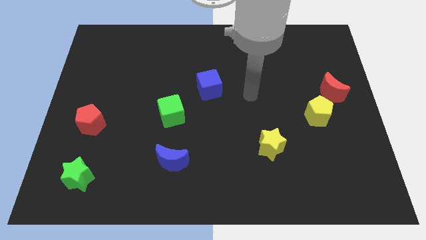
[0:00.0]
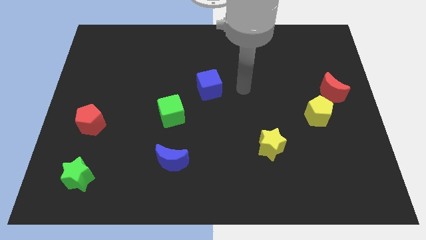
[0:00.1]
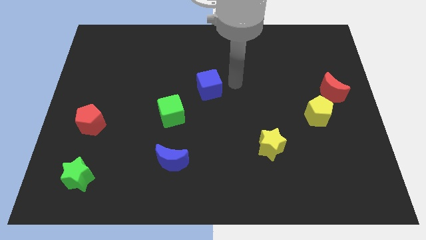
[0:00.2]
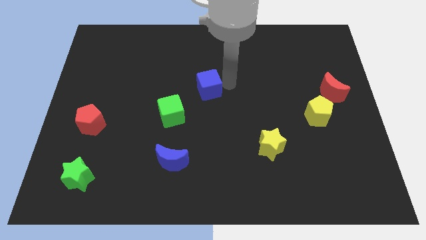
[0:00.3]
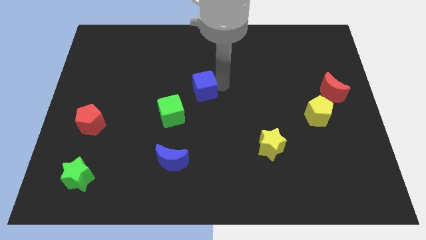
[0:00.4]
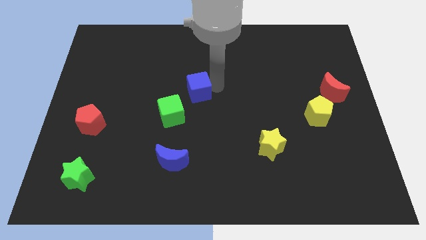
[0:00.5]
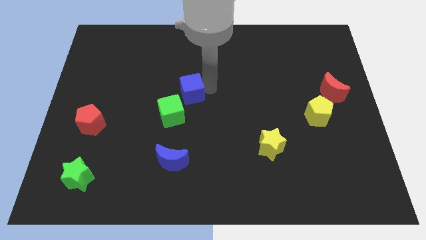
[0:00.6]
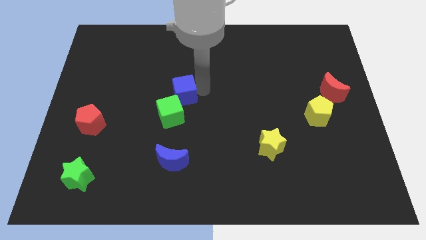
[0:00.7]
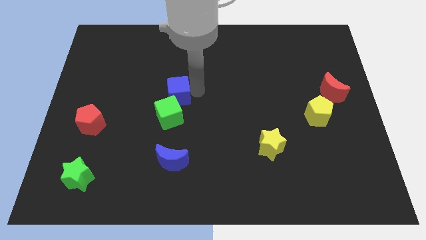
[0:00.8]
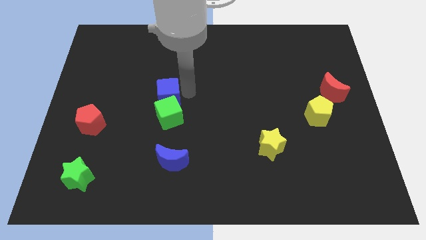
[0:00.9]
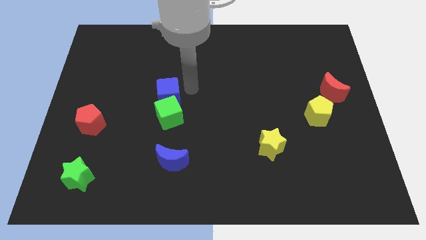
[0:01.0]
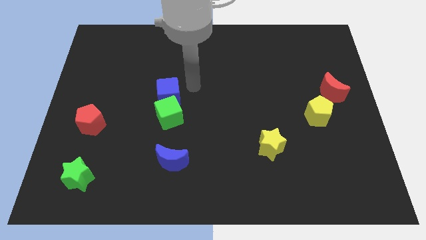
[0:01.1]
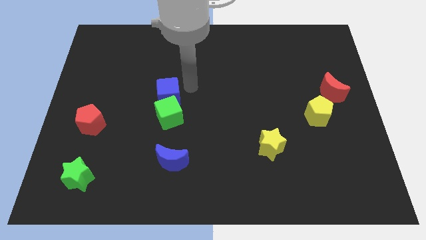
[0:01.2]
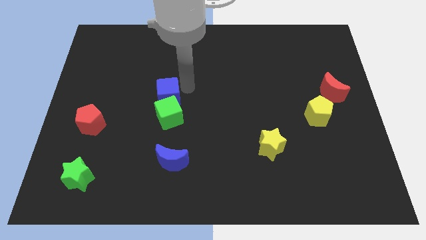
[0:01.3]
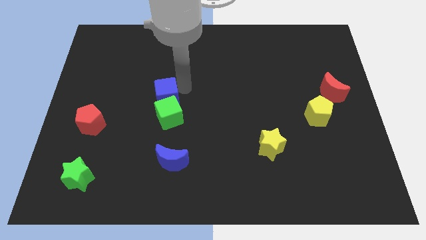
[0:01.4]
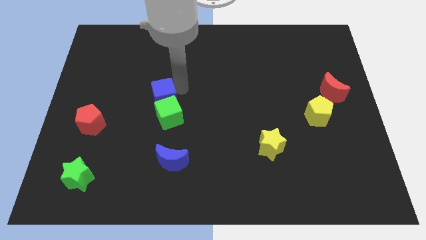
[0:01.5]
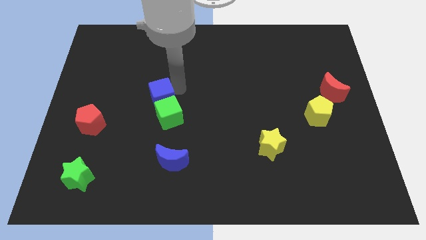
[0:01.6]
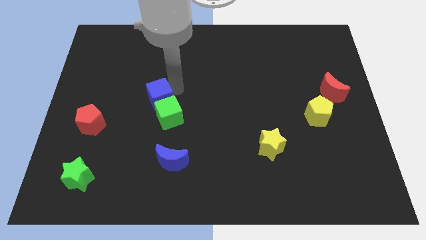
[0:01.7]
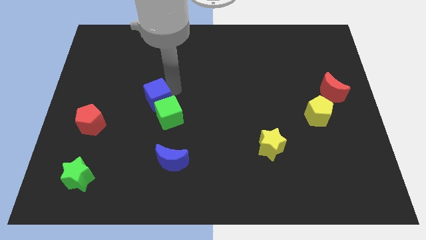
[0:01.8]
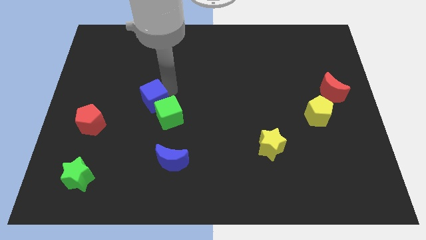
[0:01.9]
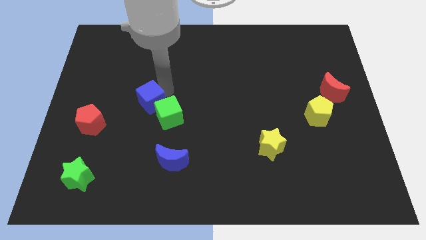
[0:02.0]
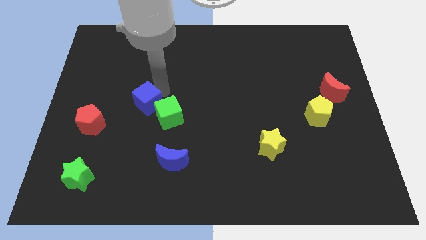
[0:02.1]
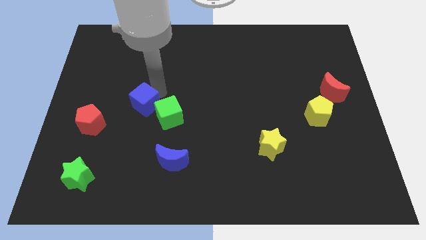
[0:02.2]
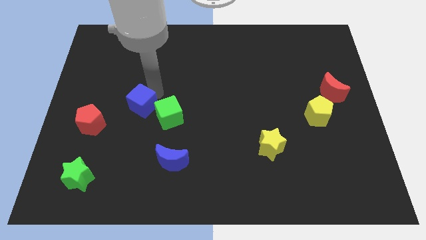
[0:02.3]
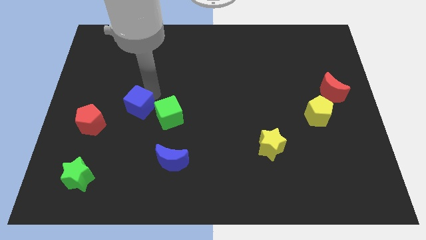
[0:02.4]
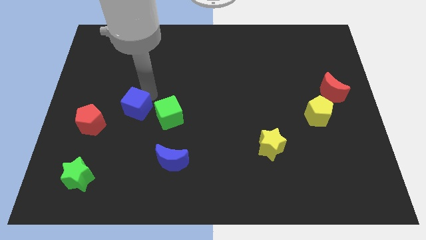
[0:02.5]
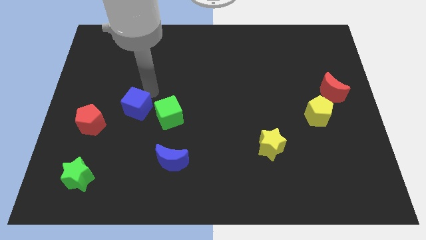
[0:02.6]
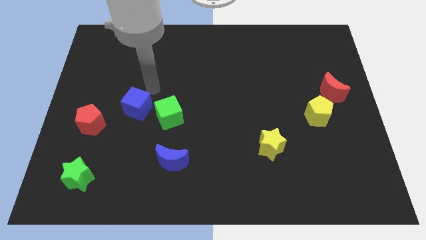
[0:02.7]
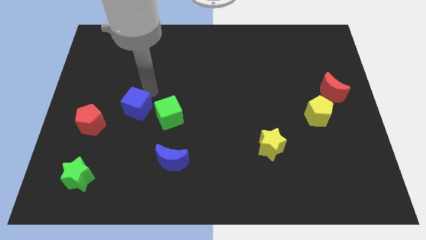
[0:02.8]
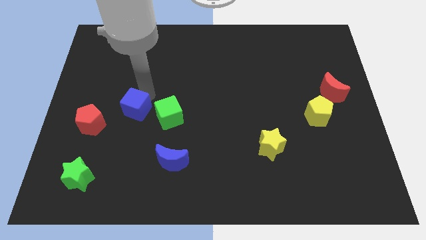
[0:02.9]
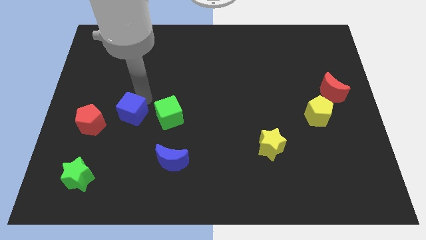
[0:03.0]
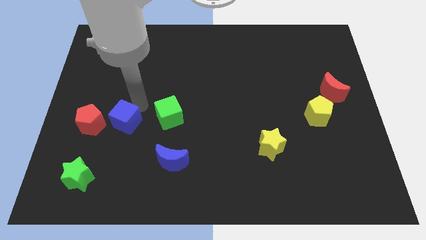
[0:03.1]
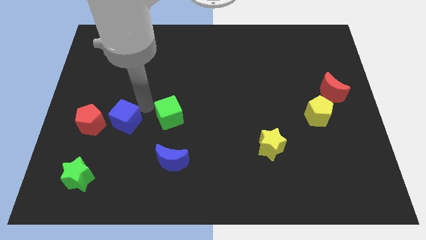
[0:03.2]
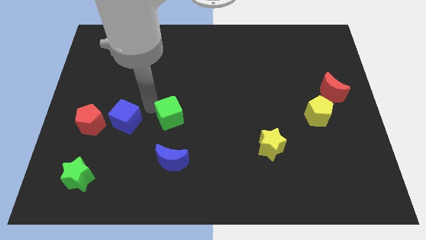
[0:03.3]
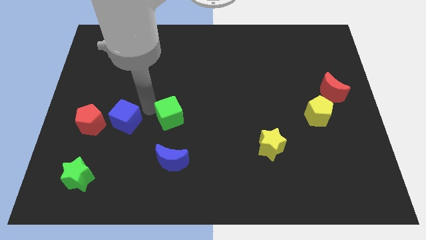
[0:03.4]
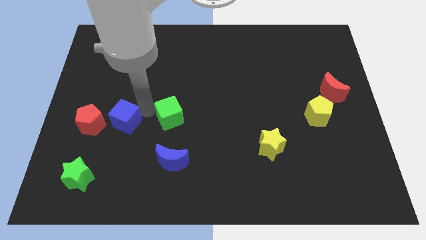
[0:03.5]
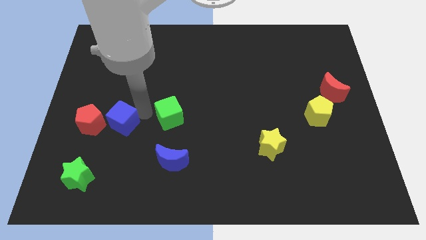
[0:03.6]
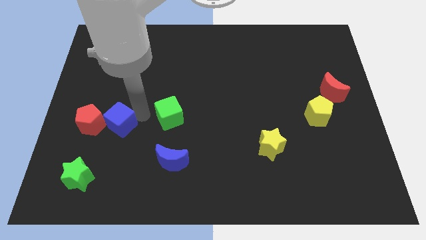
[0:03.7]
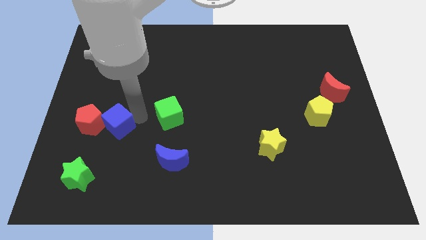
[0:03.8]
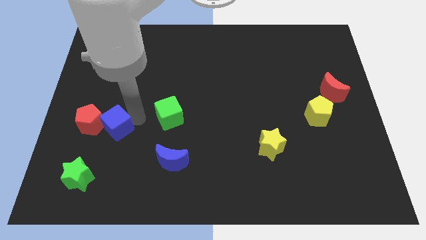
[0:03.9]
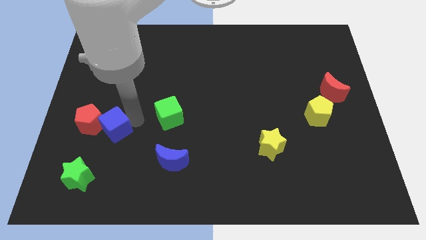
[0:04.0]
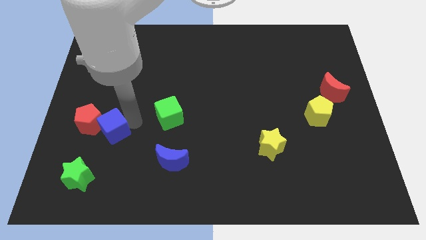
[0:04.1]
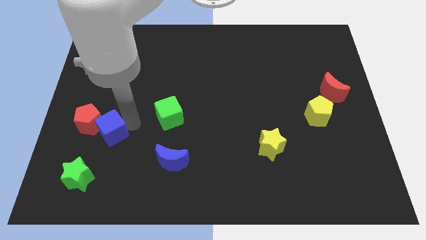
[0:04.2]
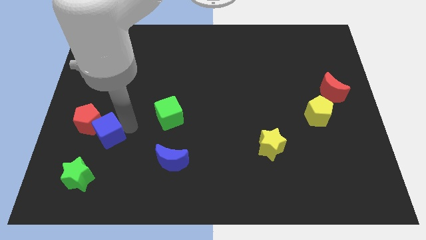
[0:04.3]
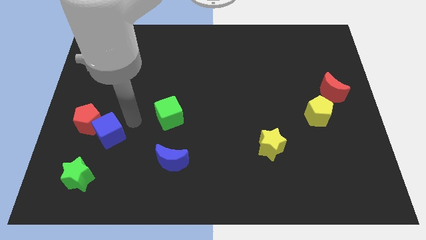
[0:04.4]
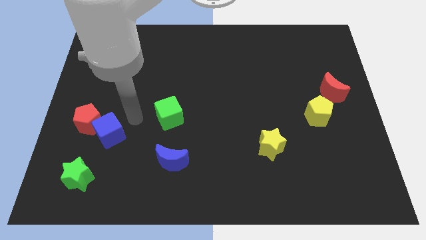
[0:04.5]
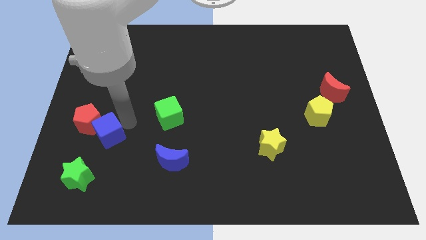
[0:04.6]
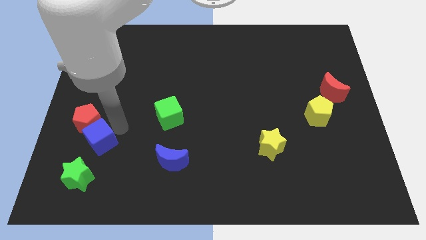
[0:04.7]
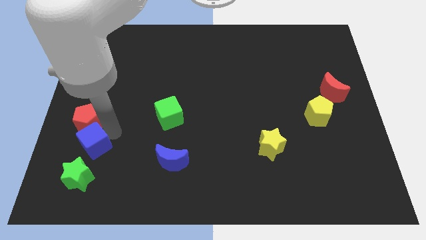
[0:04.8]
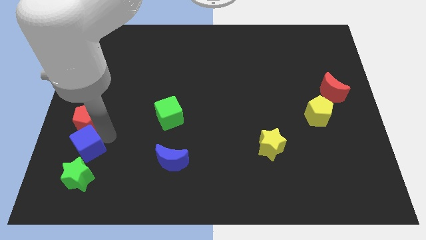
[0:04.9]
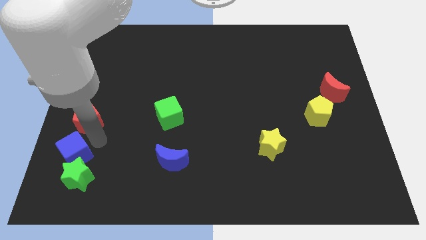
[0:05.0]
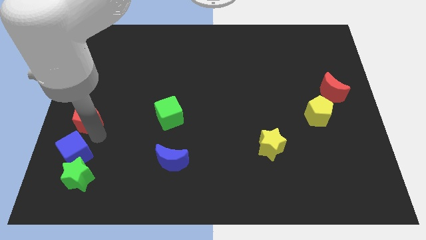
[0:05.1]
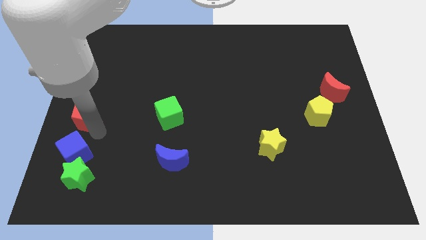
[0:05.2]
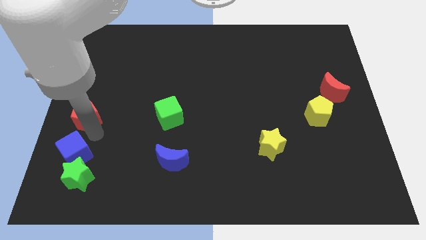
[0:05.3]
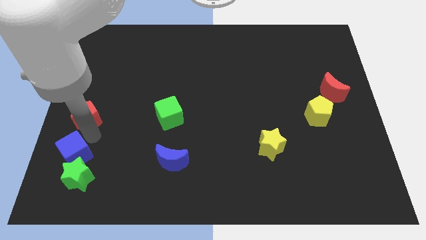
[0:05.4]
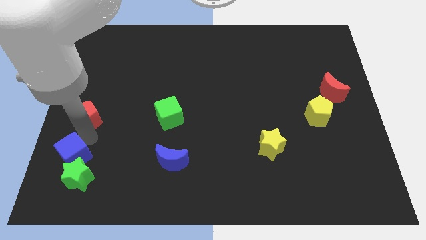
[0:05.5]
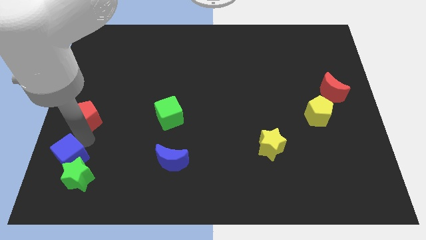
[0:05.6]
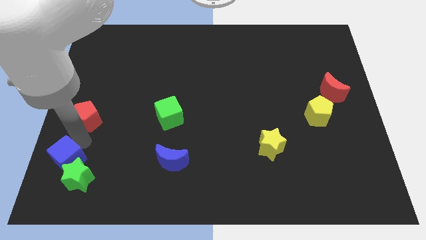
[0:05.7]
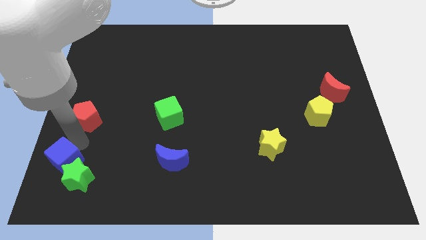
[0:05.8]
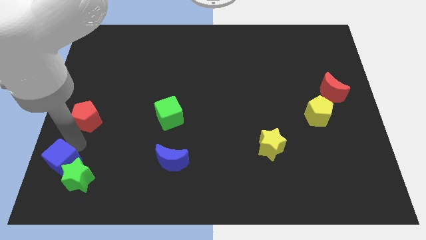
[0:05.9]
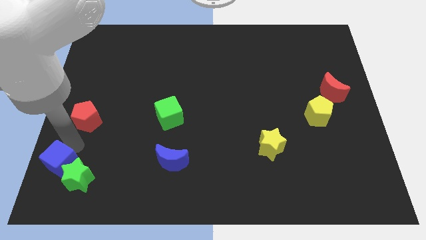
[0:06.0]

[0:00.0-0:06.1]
move the blue cube to the bottom left corner
